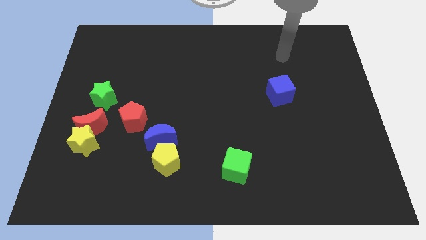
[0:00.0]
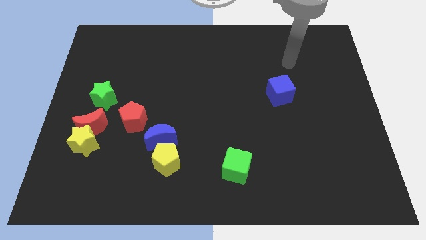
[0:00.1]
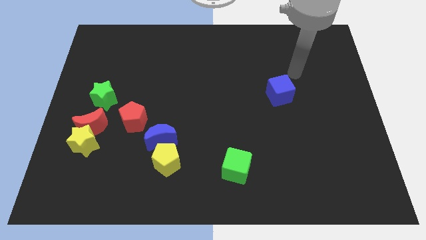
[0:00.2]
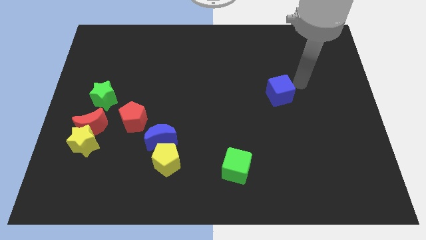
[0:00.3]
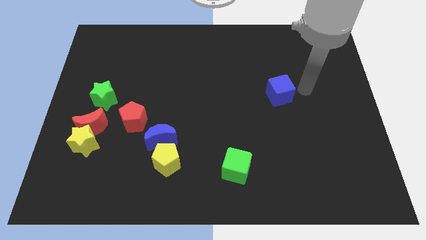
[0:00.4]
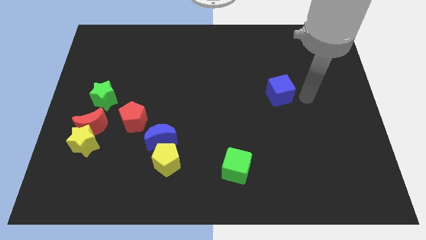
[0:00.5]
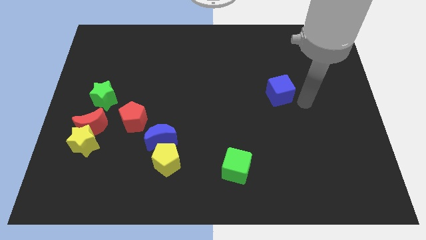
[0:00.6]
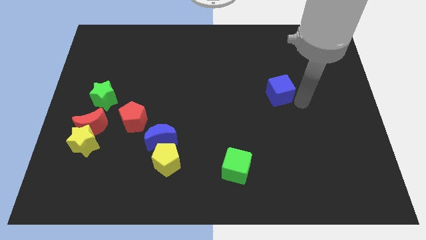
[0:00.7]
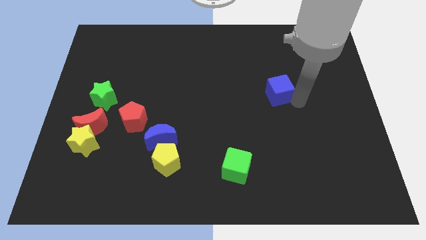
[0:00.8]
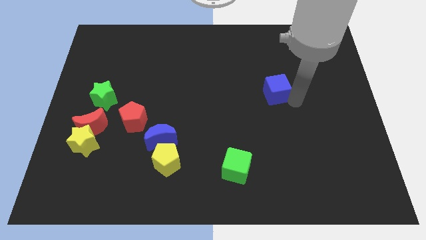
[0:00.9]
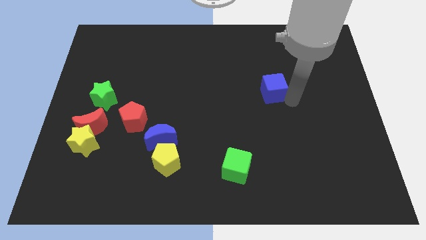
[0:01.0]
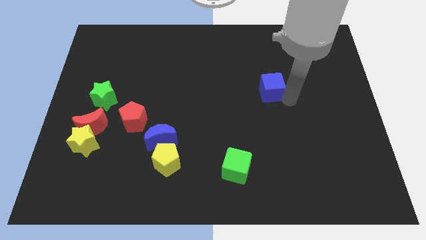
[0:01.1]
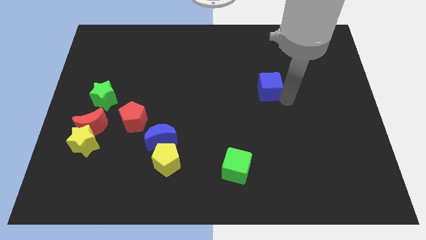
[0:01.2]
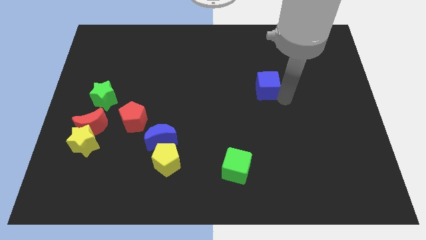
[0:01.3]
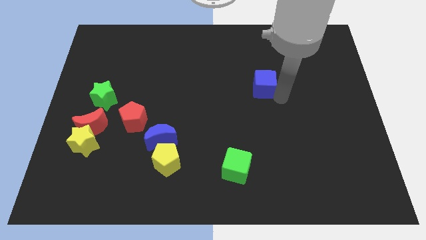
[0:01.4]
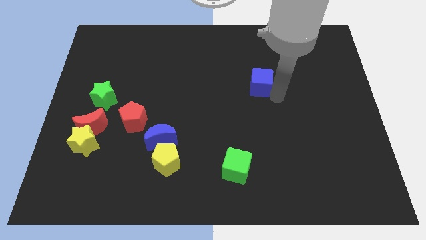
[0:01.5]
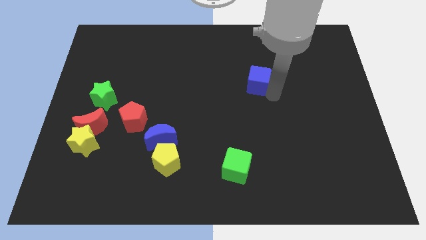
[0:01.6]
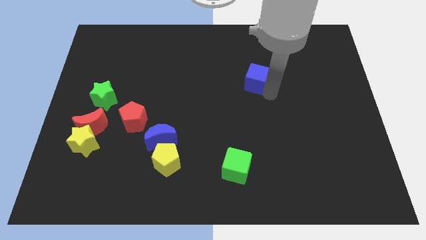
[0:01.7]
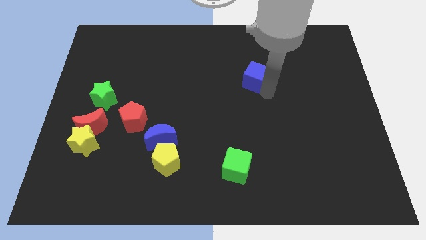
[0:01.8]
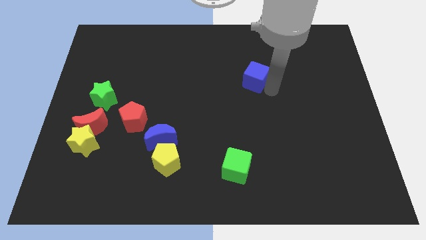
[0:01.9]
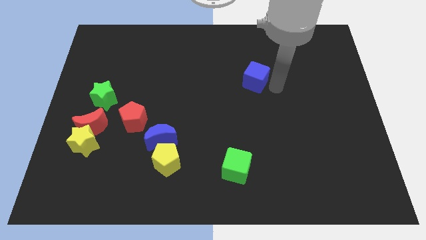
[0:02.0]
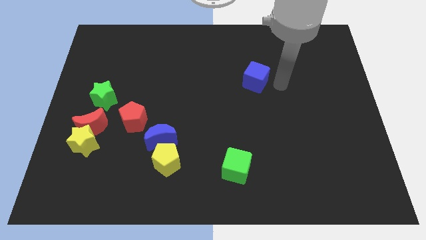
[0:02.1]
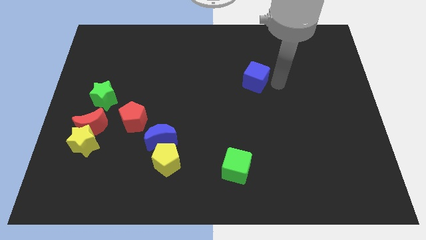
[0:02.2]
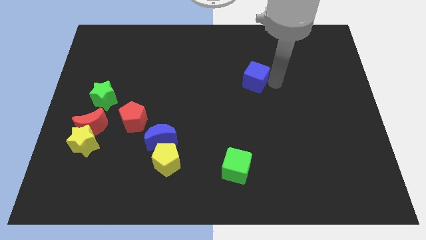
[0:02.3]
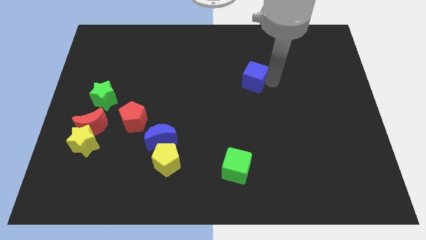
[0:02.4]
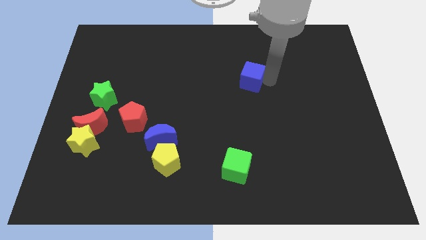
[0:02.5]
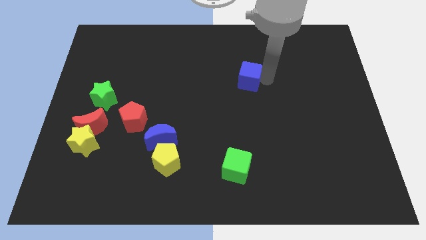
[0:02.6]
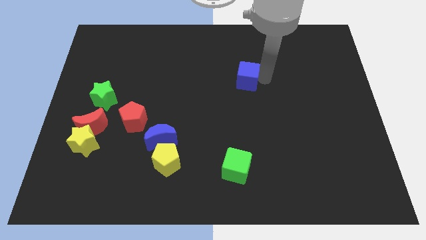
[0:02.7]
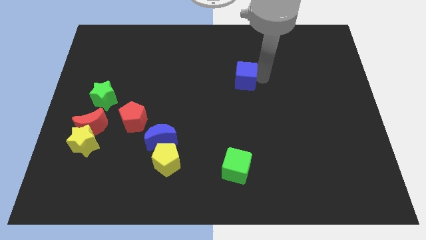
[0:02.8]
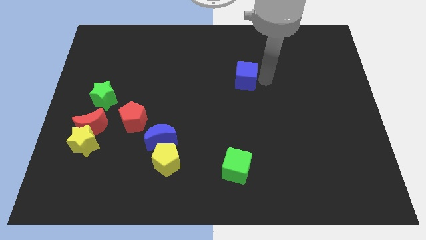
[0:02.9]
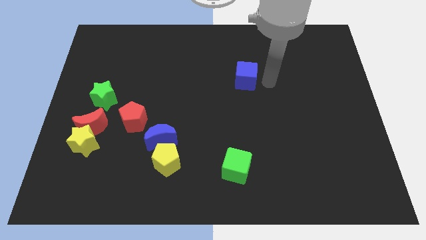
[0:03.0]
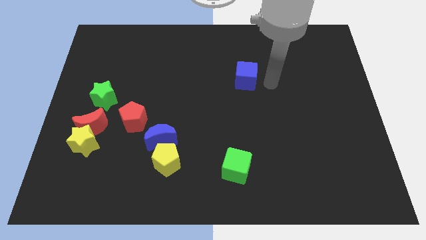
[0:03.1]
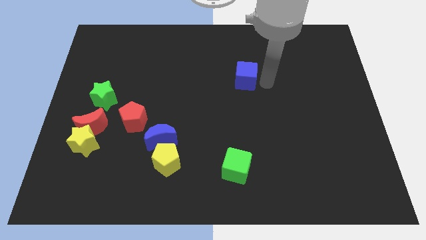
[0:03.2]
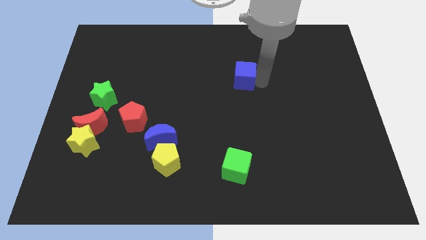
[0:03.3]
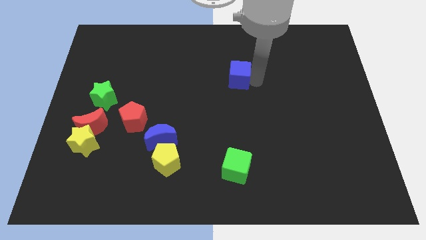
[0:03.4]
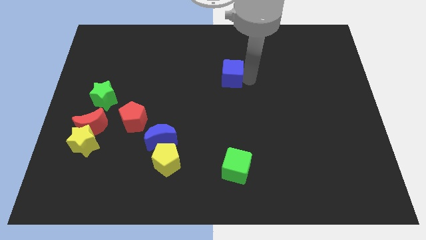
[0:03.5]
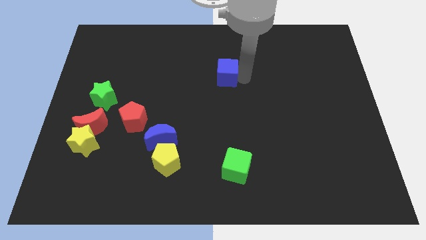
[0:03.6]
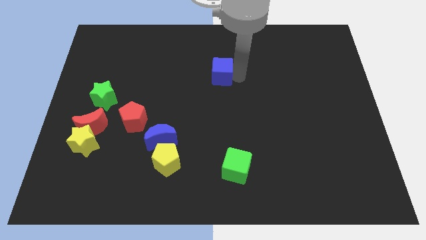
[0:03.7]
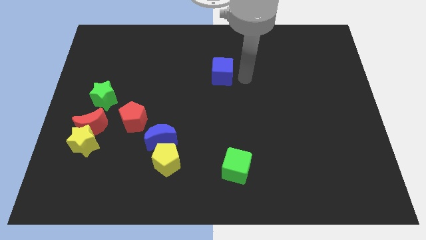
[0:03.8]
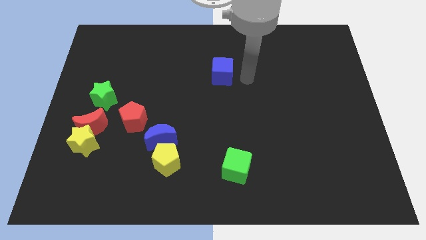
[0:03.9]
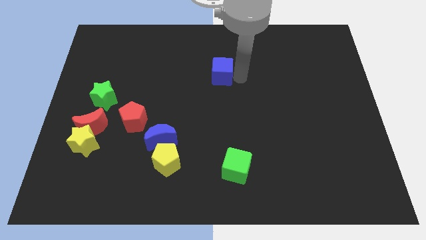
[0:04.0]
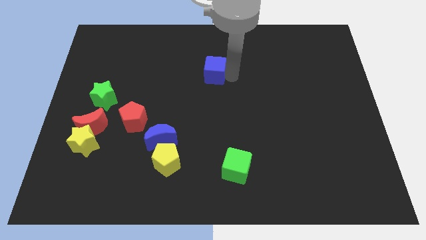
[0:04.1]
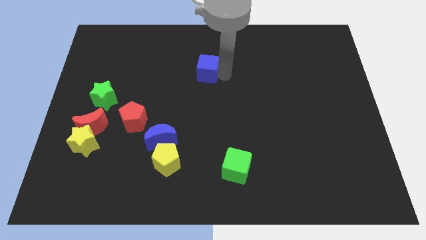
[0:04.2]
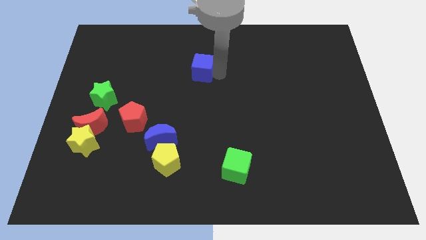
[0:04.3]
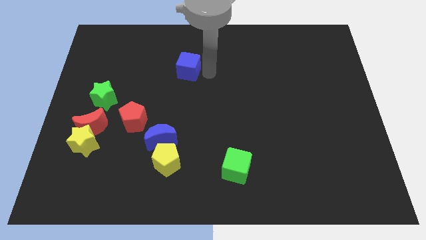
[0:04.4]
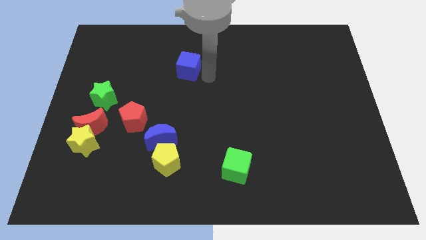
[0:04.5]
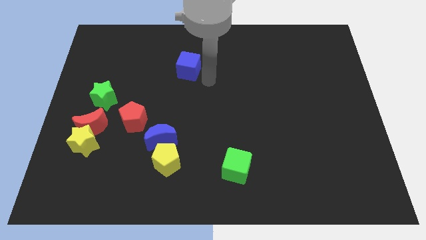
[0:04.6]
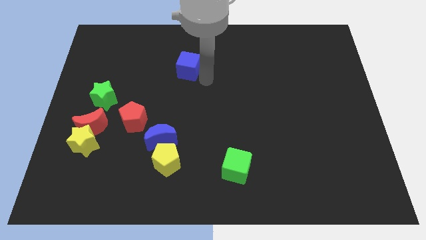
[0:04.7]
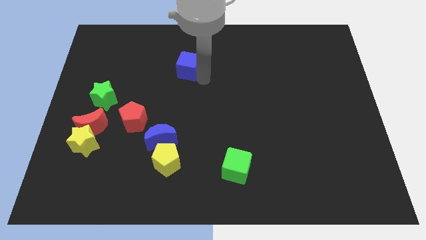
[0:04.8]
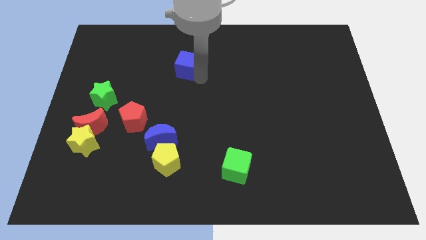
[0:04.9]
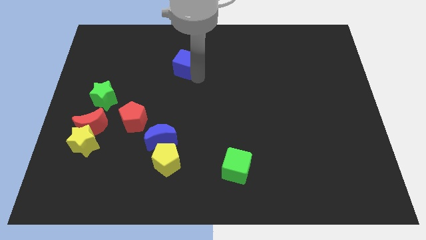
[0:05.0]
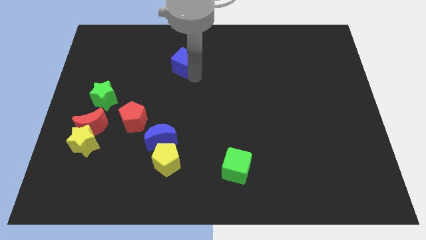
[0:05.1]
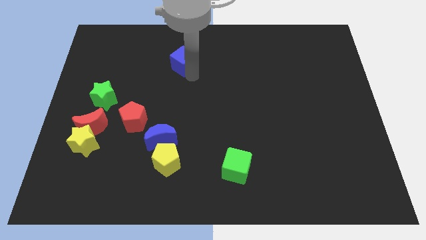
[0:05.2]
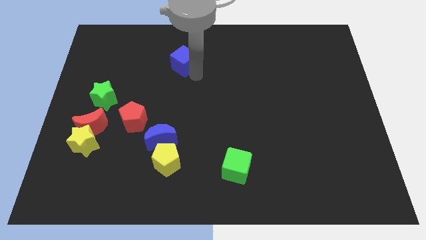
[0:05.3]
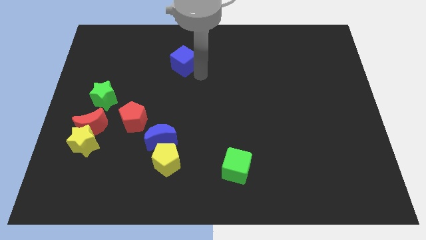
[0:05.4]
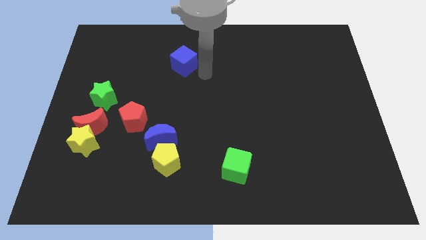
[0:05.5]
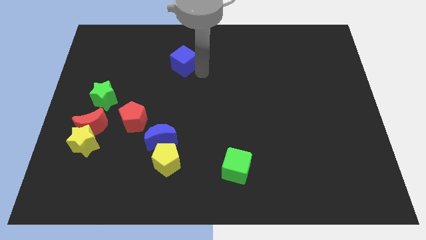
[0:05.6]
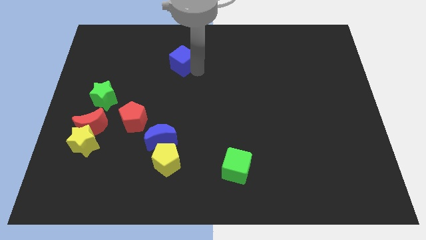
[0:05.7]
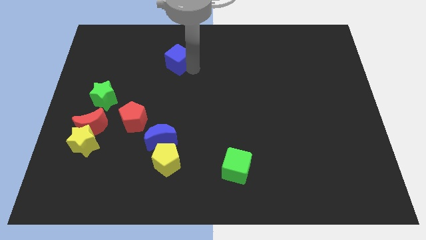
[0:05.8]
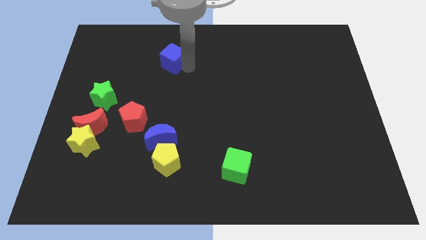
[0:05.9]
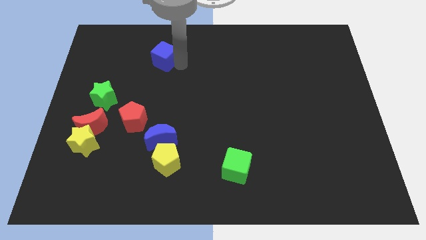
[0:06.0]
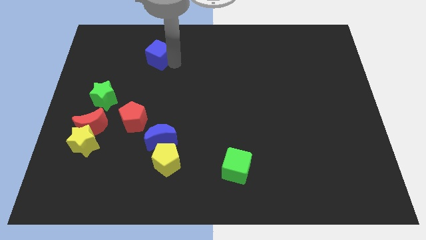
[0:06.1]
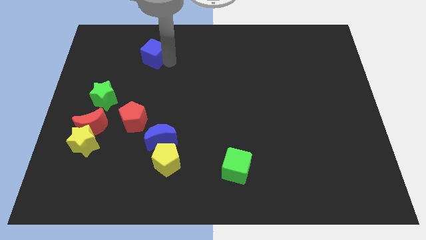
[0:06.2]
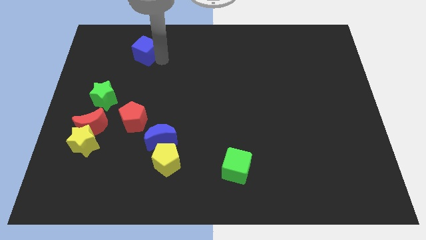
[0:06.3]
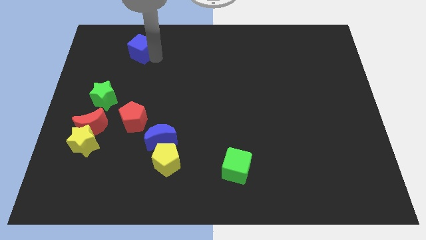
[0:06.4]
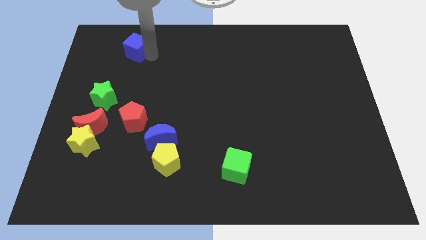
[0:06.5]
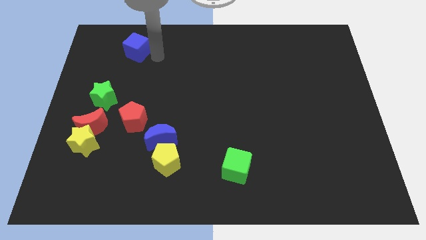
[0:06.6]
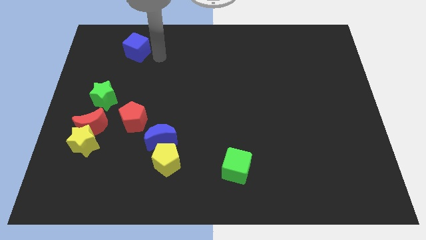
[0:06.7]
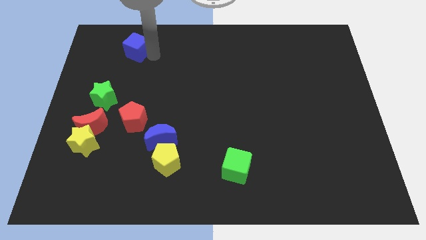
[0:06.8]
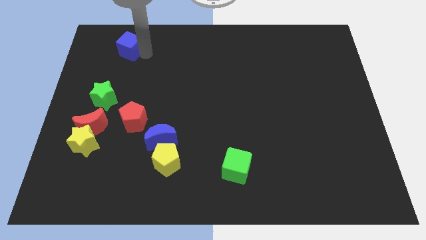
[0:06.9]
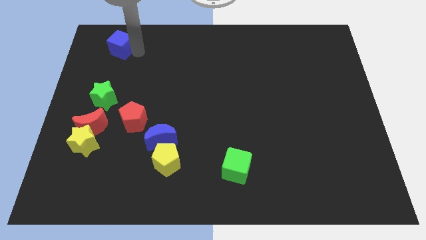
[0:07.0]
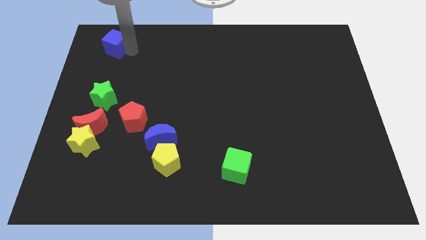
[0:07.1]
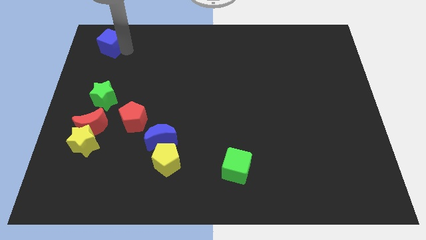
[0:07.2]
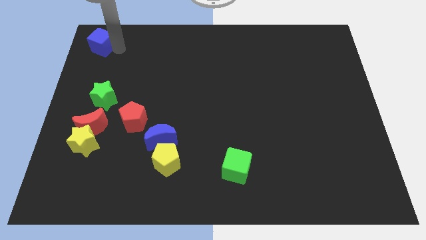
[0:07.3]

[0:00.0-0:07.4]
put the blue cube to the top left

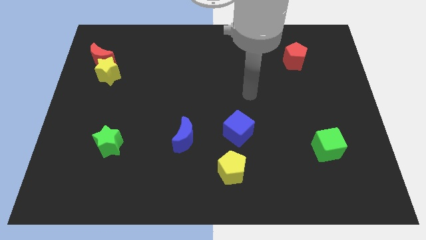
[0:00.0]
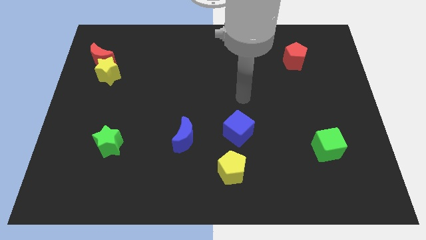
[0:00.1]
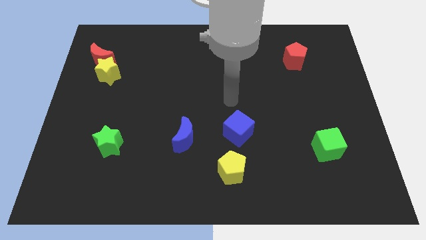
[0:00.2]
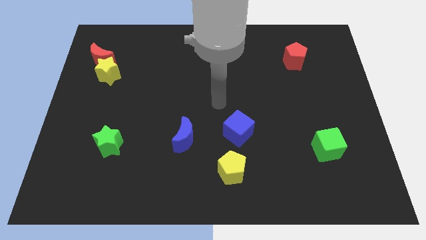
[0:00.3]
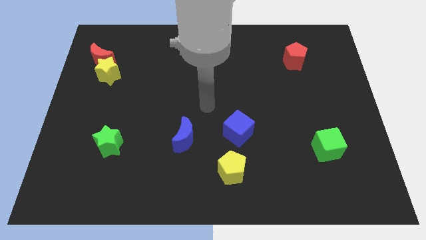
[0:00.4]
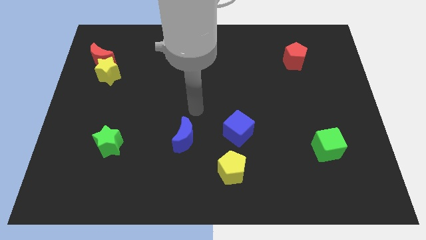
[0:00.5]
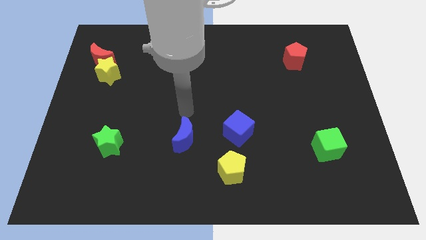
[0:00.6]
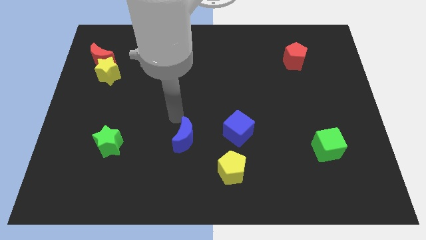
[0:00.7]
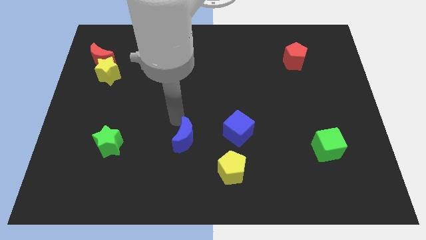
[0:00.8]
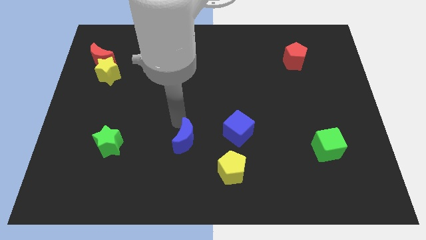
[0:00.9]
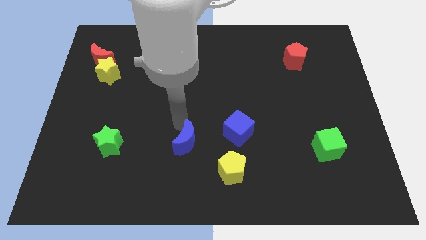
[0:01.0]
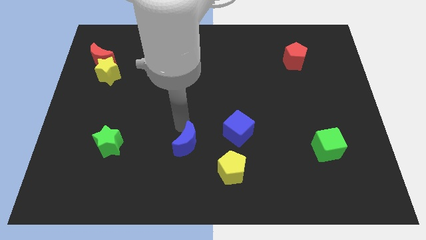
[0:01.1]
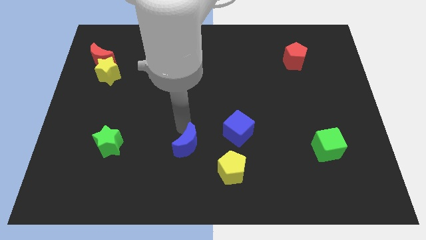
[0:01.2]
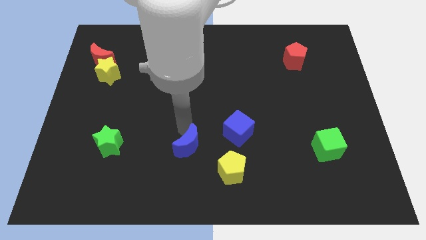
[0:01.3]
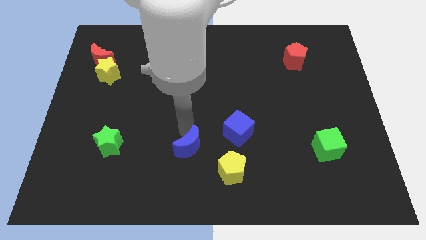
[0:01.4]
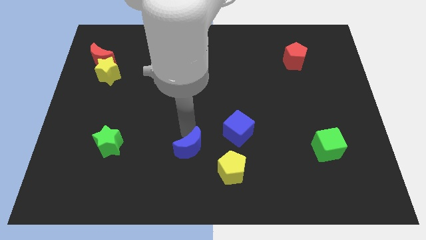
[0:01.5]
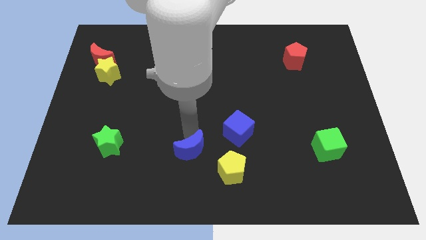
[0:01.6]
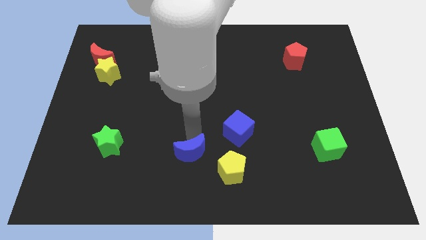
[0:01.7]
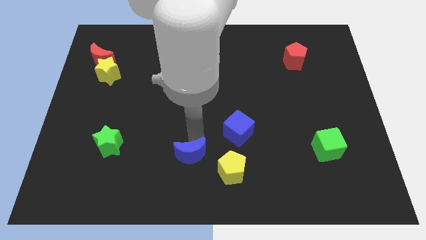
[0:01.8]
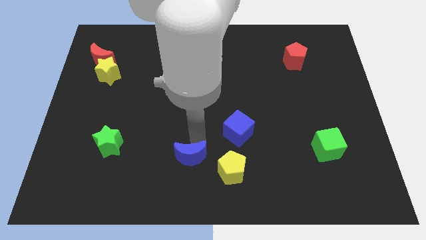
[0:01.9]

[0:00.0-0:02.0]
put the blue moon to the bottom side
